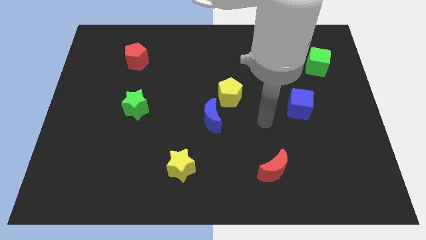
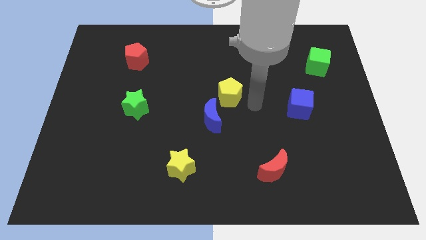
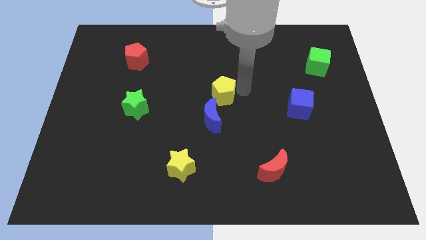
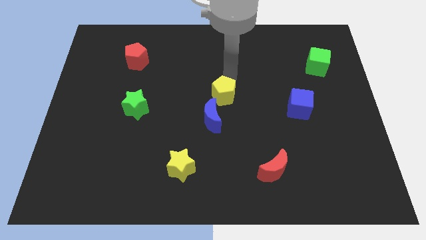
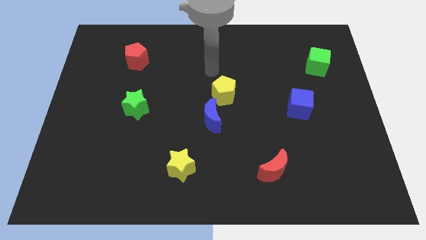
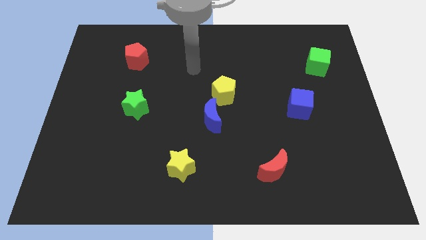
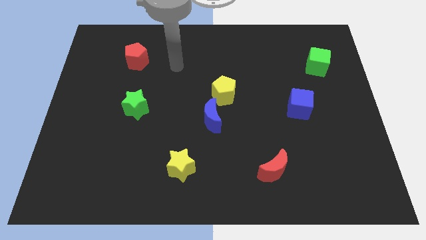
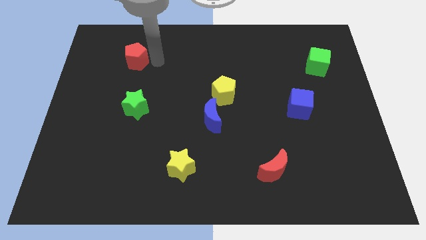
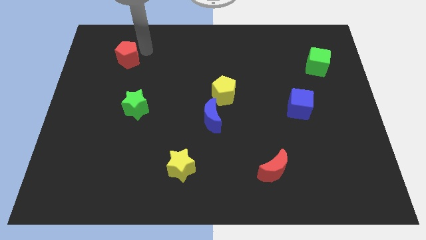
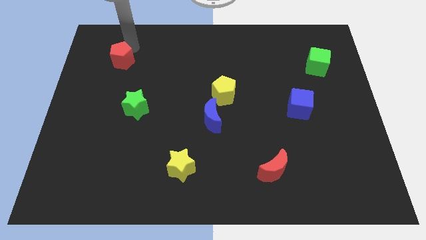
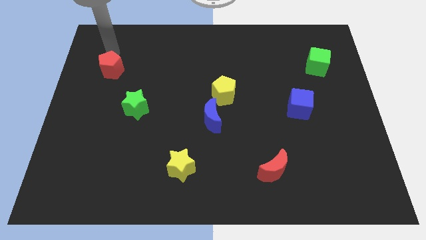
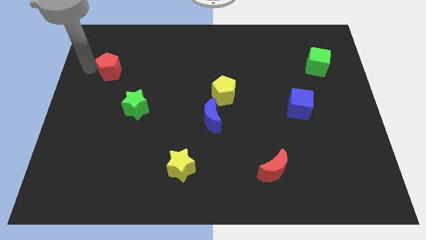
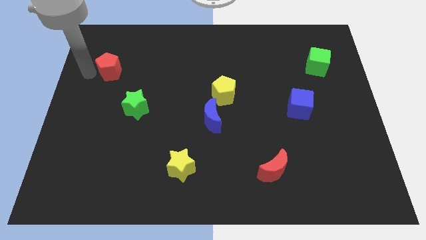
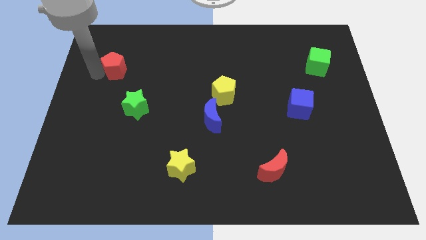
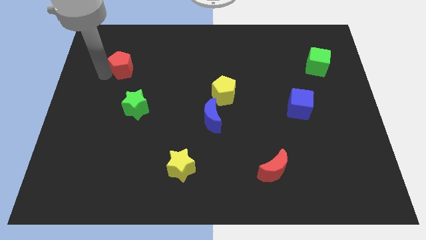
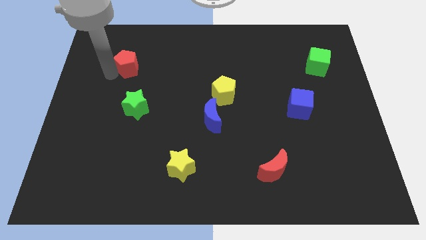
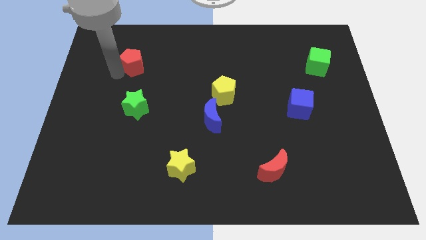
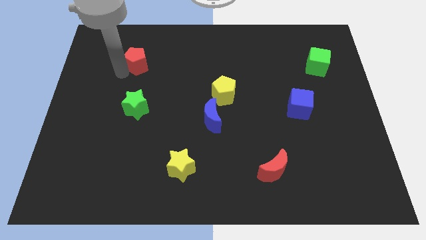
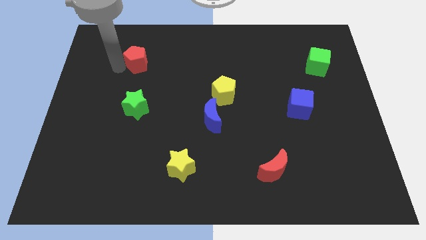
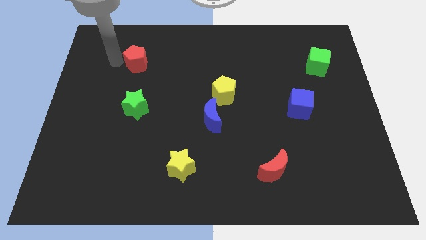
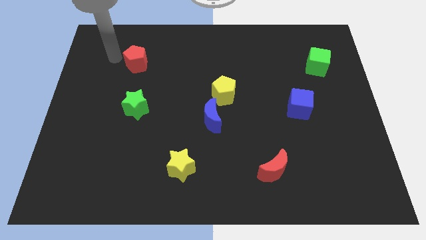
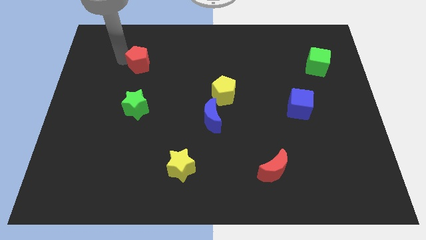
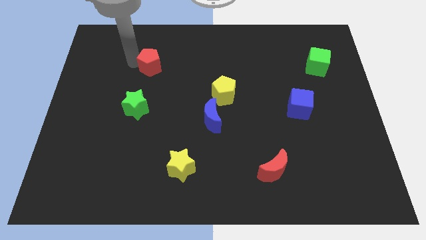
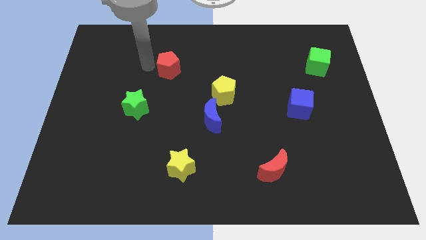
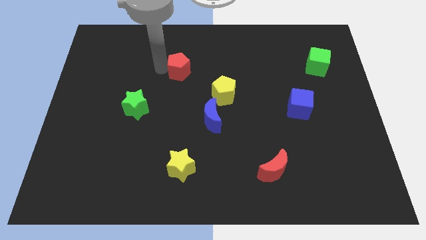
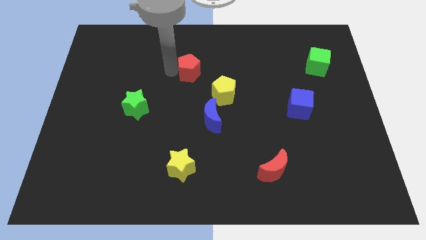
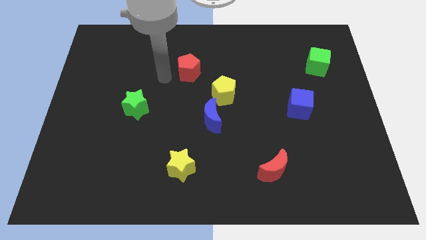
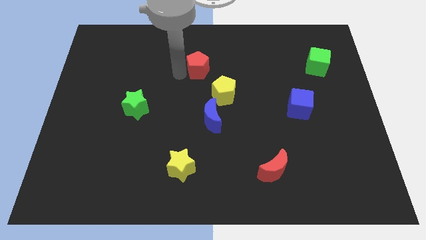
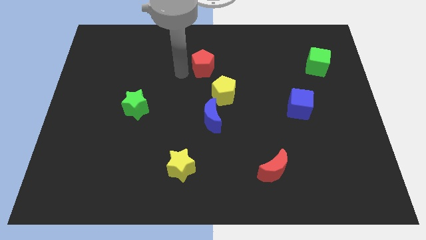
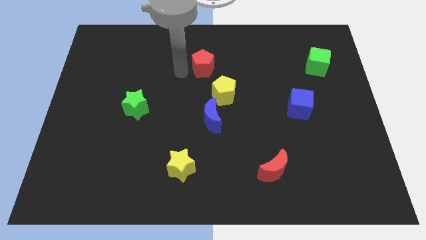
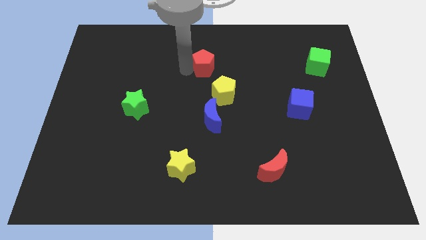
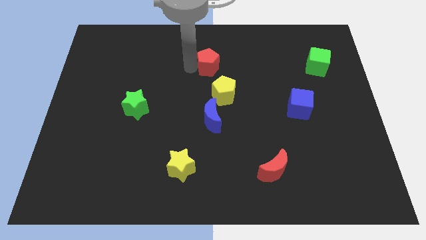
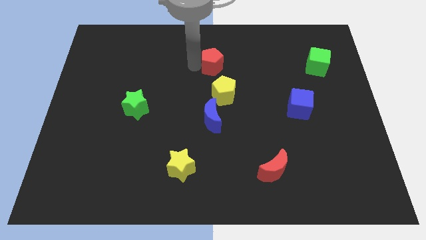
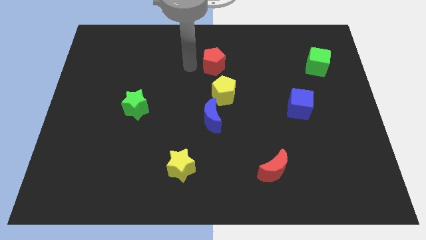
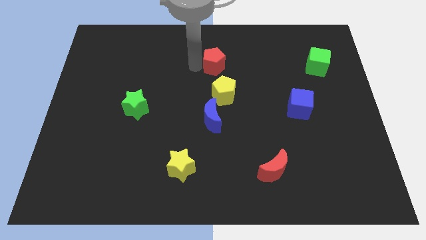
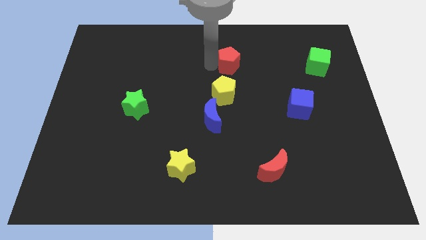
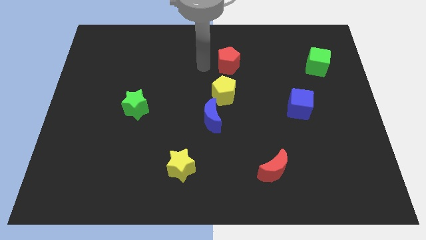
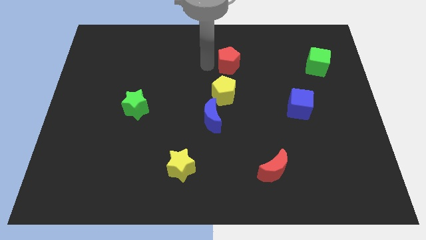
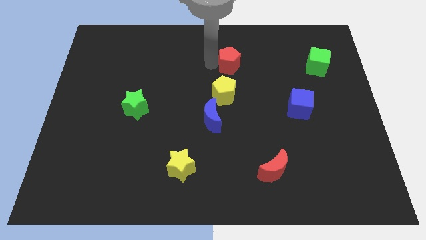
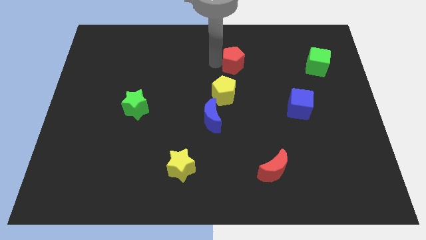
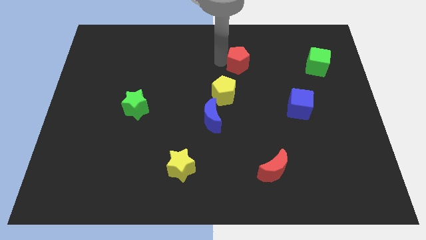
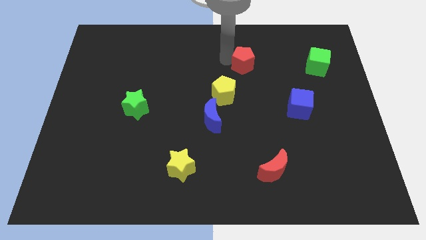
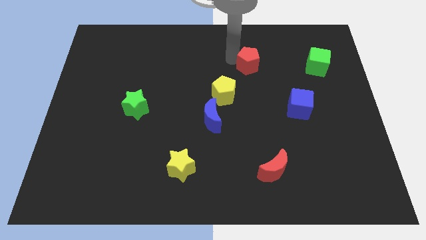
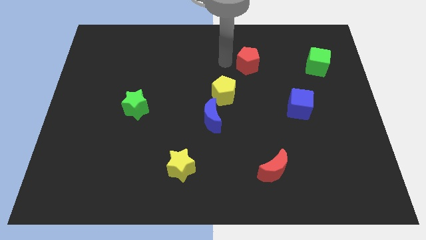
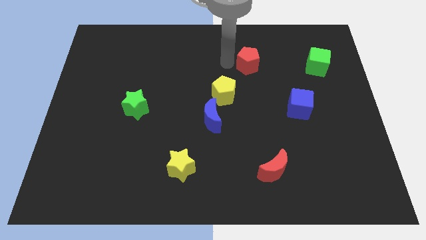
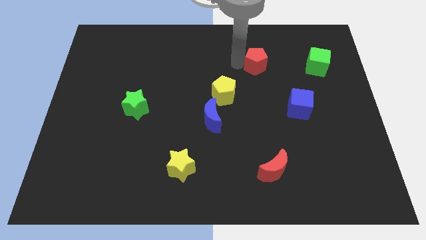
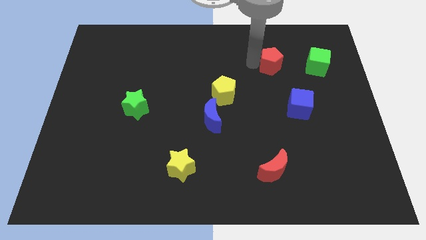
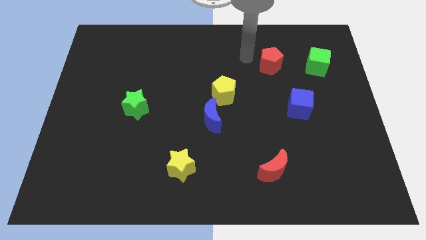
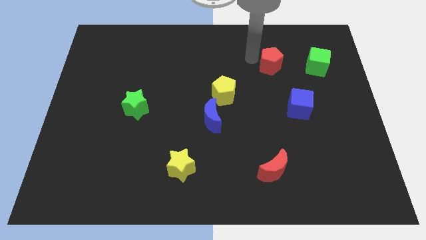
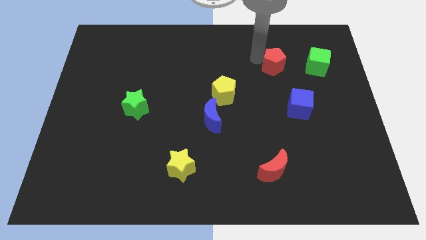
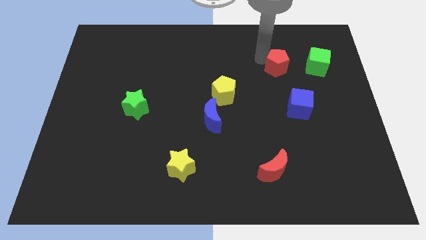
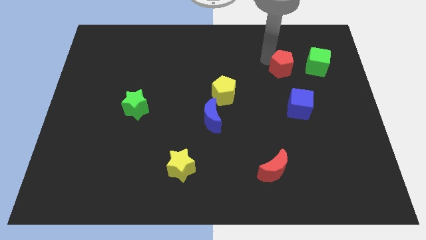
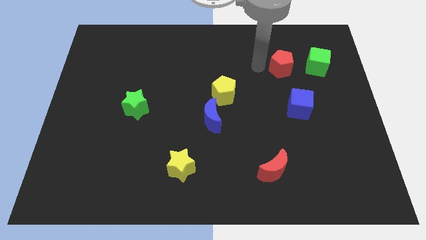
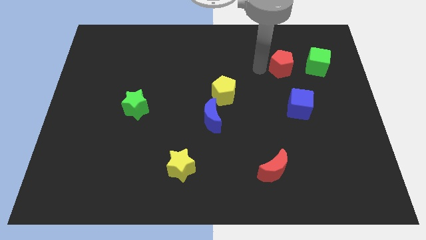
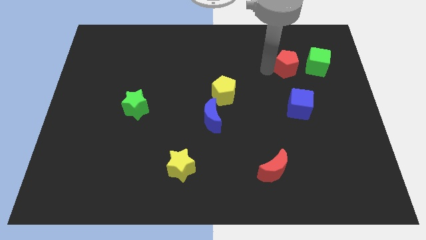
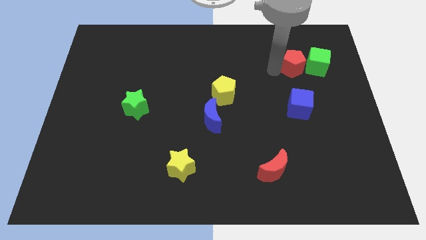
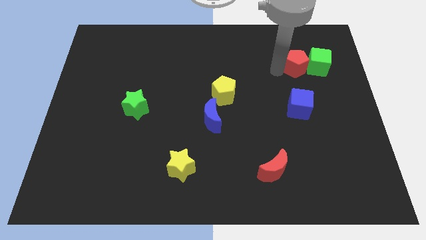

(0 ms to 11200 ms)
put the red pentagon to the green cube
